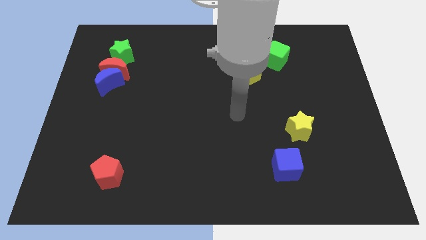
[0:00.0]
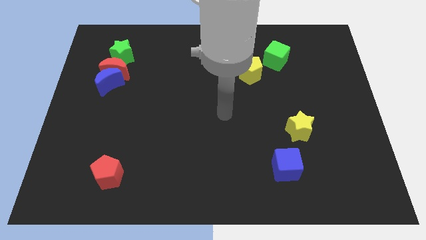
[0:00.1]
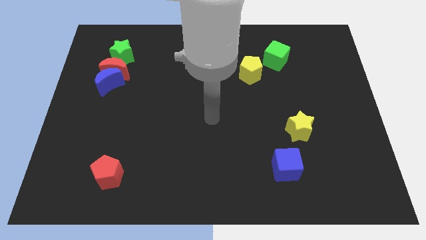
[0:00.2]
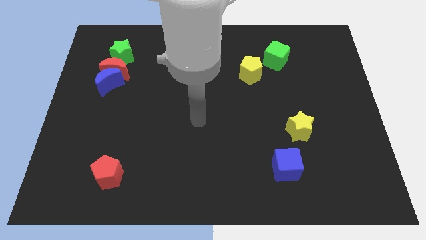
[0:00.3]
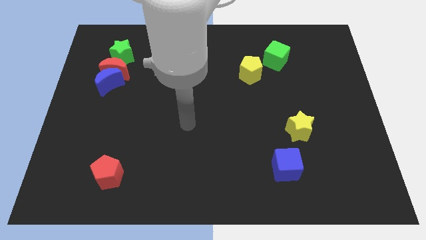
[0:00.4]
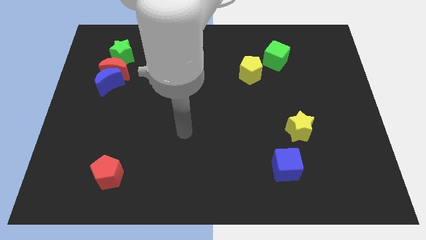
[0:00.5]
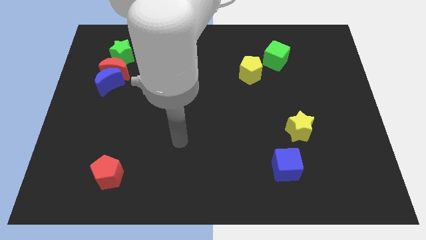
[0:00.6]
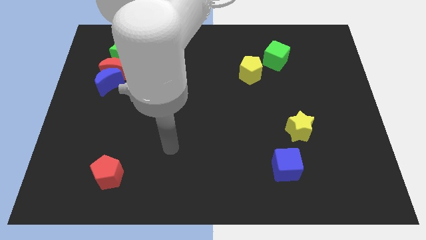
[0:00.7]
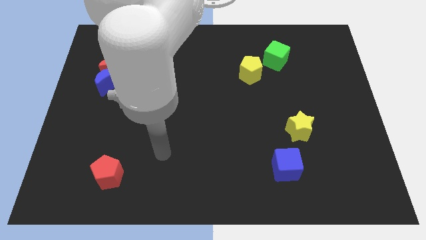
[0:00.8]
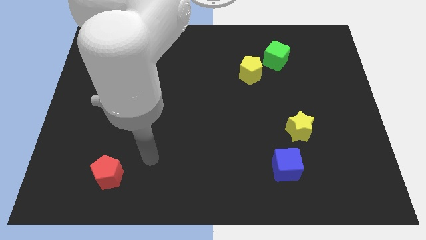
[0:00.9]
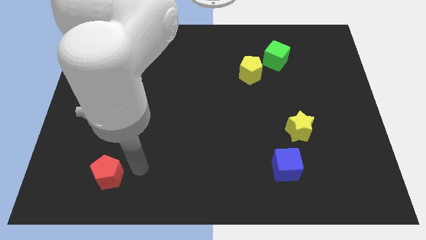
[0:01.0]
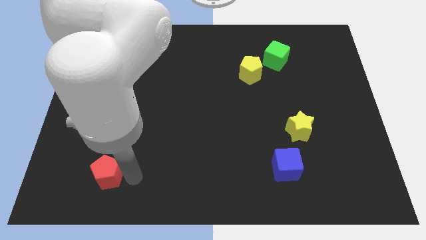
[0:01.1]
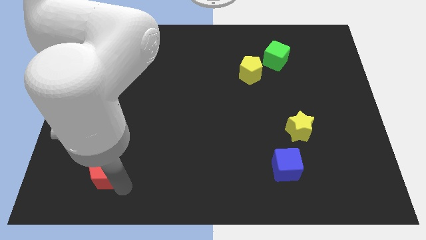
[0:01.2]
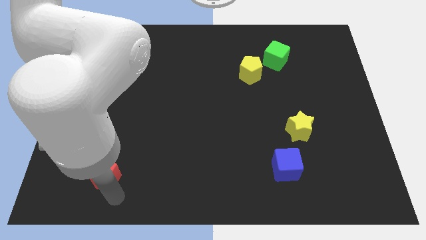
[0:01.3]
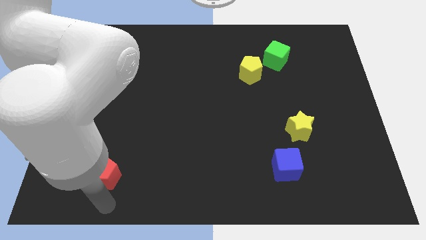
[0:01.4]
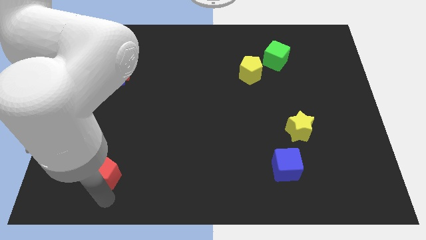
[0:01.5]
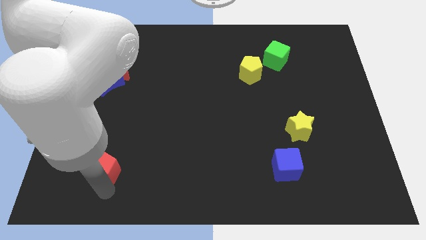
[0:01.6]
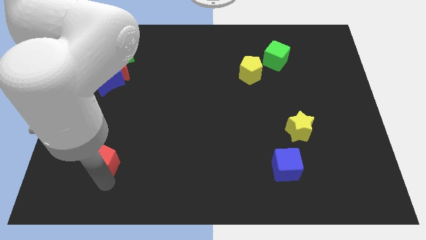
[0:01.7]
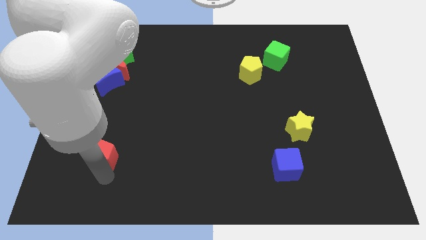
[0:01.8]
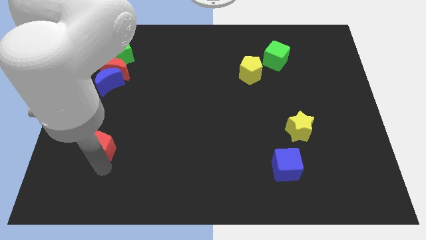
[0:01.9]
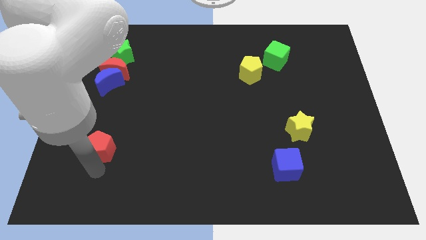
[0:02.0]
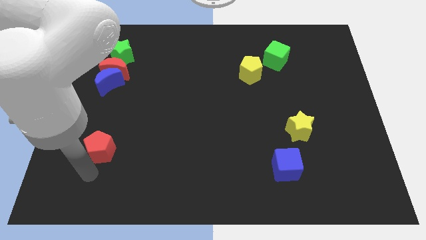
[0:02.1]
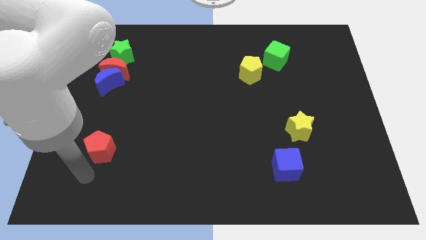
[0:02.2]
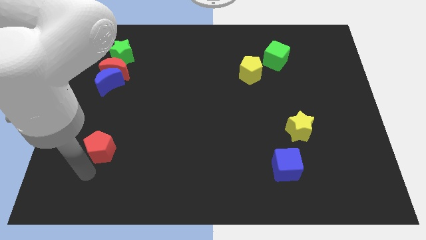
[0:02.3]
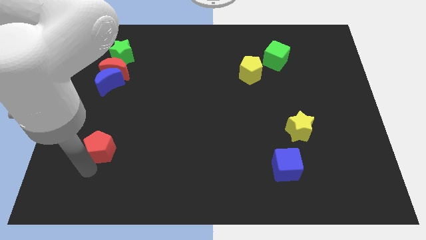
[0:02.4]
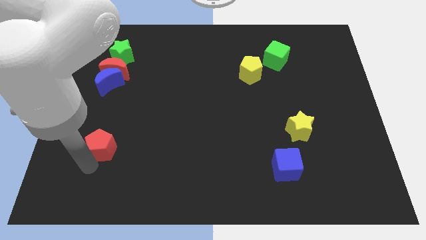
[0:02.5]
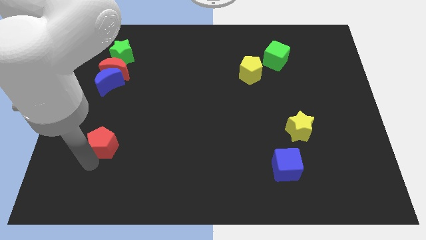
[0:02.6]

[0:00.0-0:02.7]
slightly move the red pentagon upwards

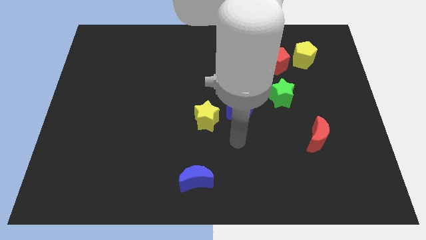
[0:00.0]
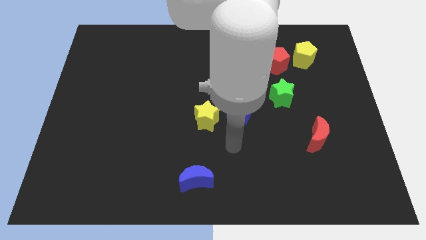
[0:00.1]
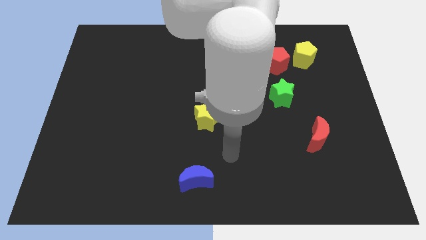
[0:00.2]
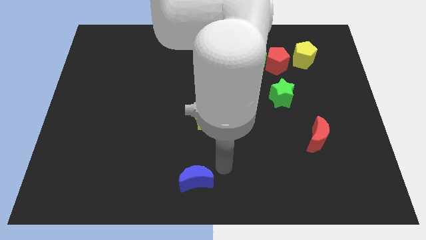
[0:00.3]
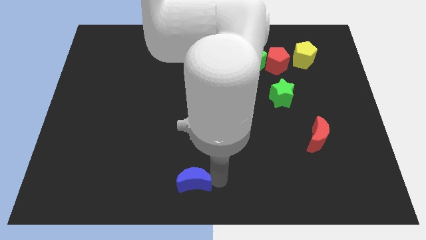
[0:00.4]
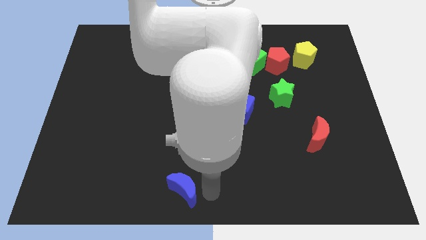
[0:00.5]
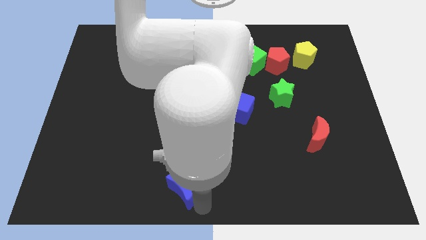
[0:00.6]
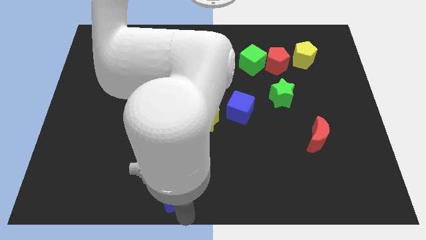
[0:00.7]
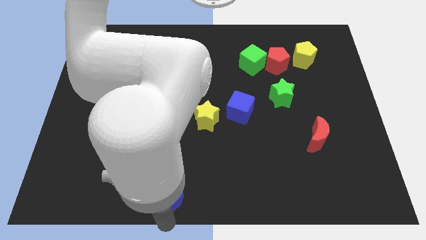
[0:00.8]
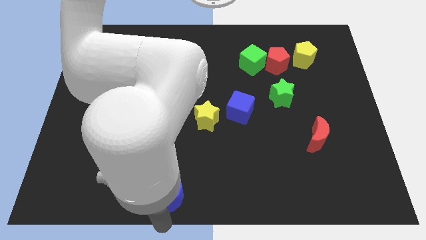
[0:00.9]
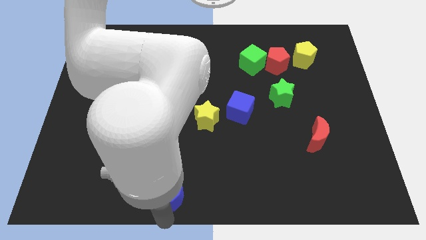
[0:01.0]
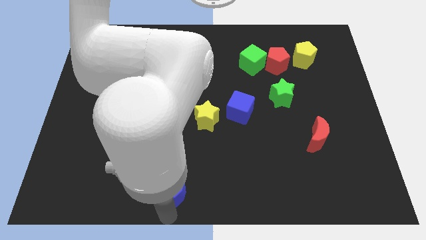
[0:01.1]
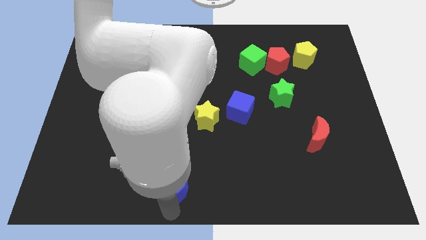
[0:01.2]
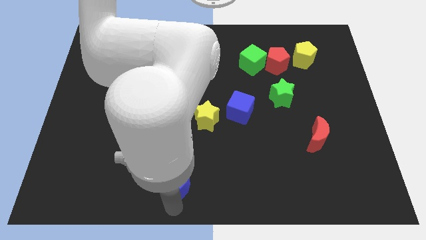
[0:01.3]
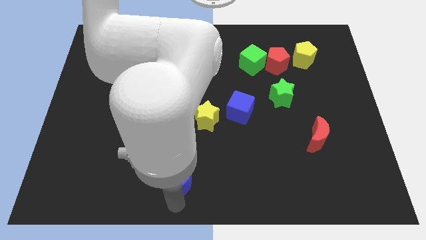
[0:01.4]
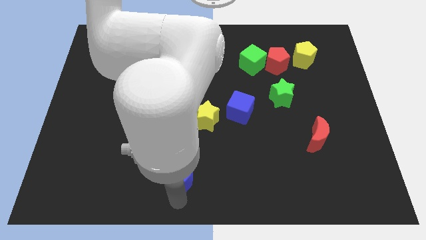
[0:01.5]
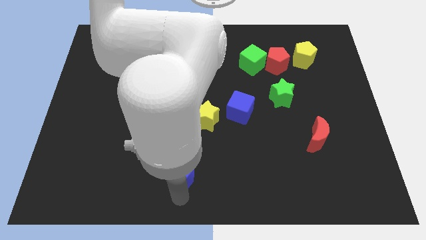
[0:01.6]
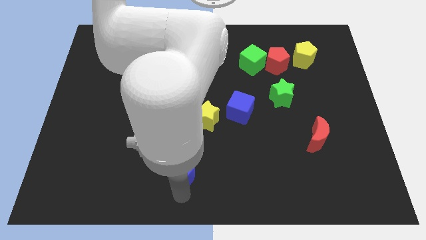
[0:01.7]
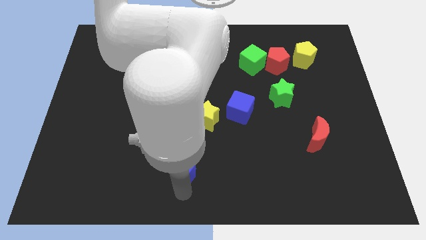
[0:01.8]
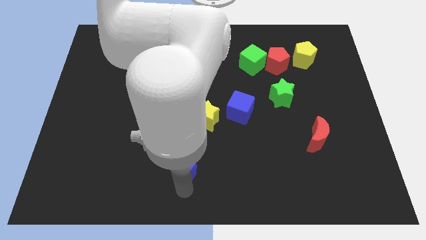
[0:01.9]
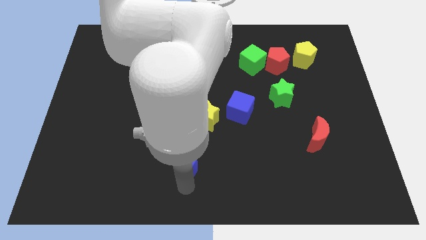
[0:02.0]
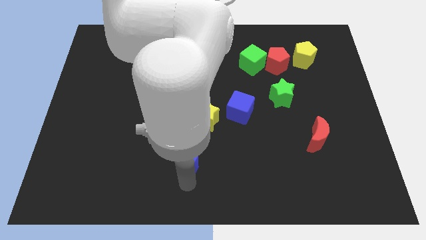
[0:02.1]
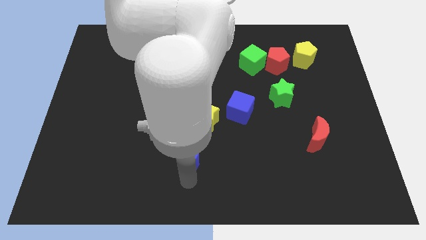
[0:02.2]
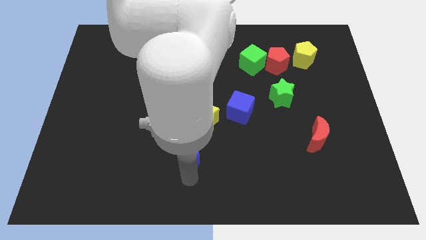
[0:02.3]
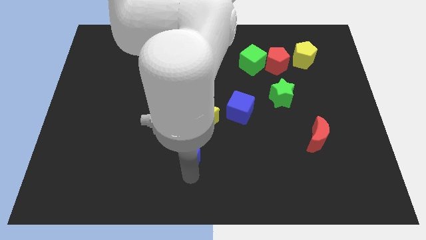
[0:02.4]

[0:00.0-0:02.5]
move the blue moon slightly up

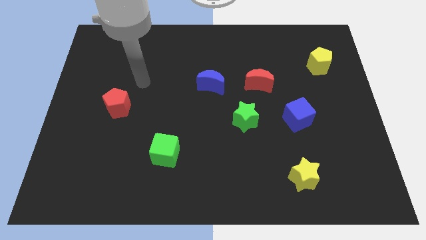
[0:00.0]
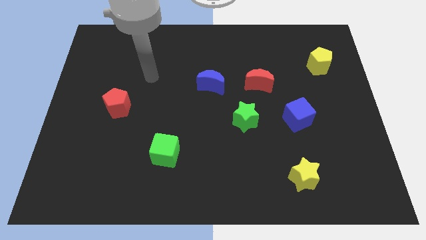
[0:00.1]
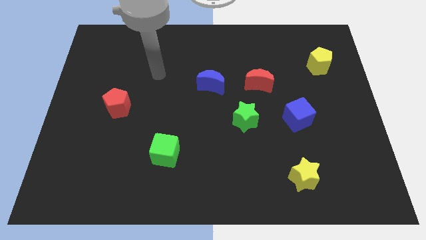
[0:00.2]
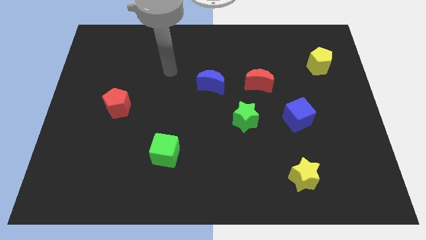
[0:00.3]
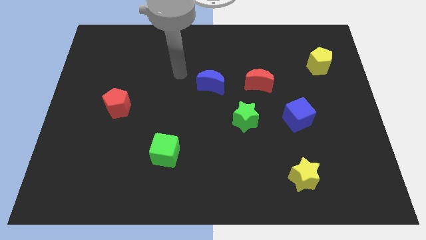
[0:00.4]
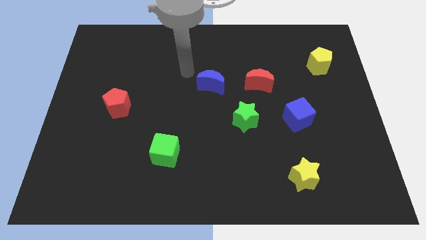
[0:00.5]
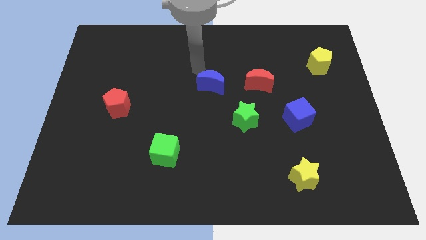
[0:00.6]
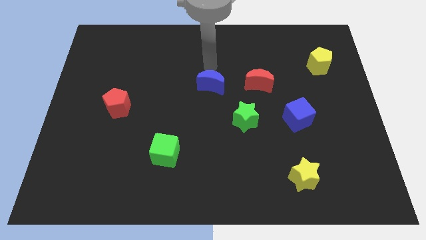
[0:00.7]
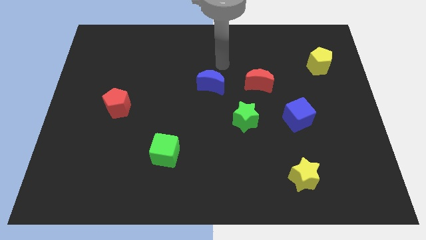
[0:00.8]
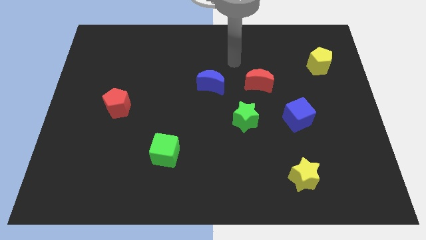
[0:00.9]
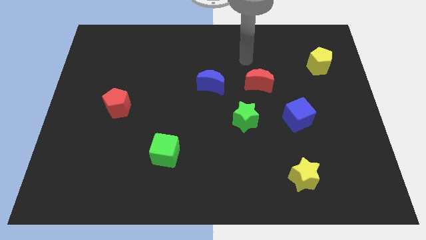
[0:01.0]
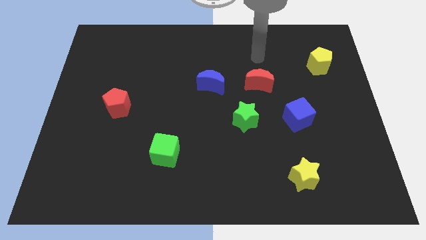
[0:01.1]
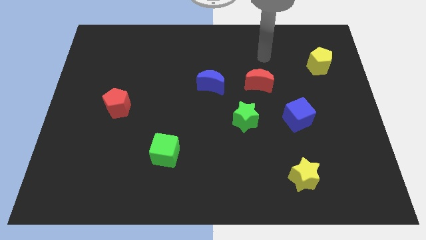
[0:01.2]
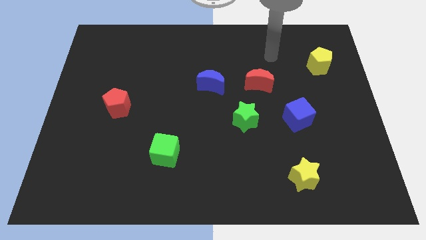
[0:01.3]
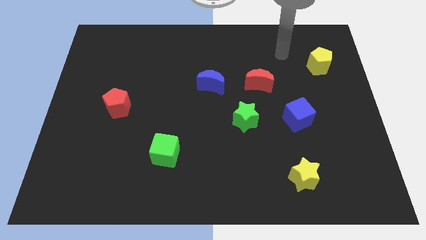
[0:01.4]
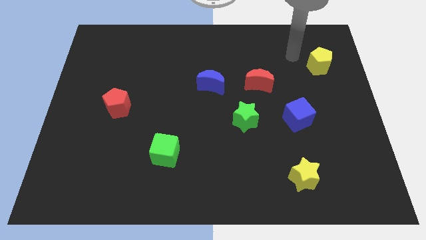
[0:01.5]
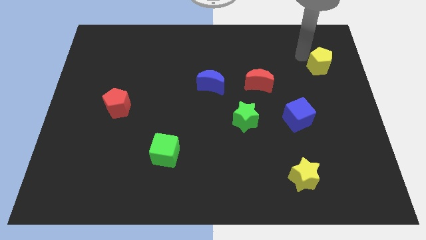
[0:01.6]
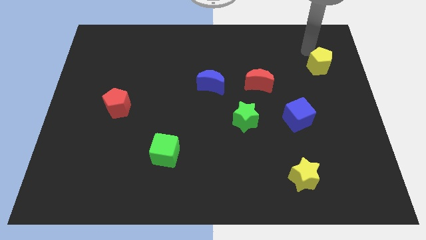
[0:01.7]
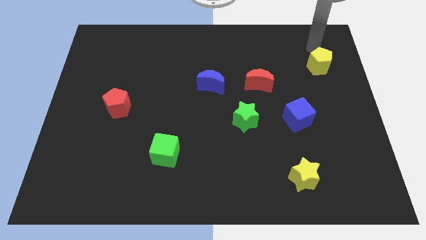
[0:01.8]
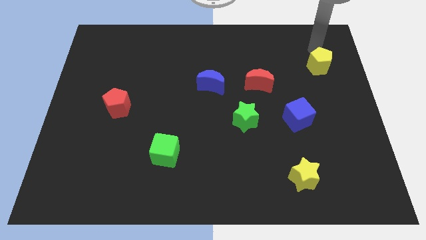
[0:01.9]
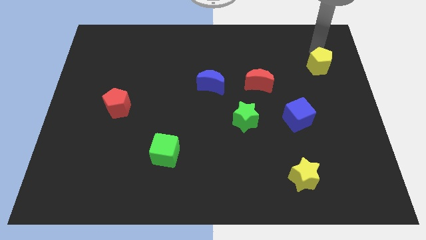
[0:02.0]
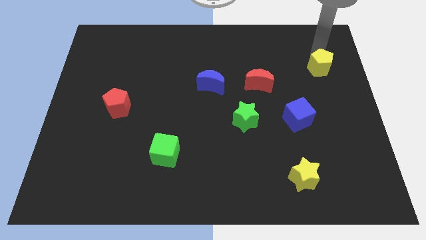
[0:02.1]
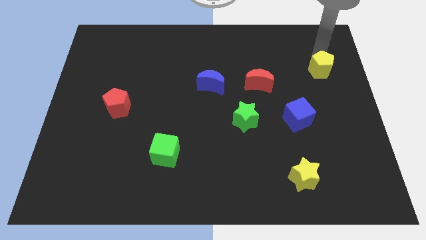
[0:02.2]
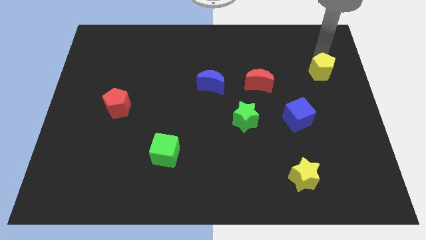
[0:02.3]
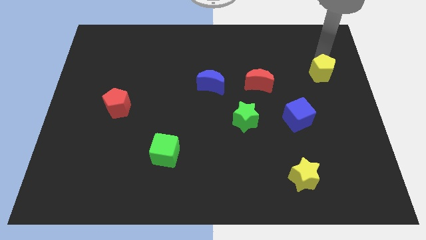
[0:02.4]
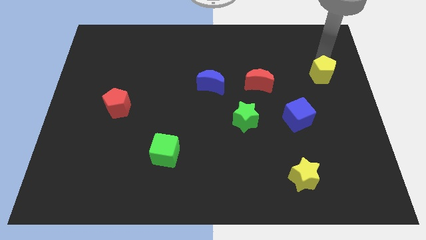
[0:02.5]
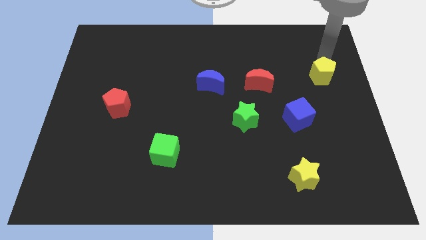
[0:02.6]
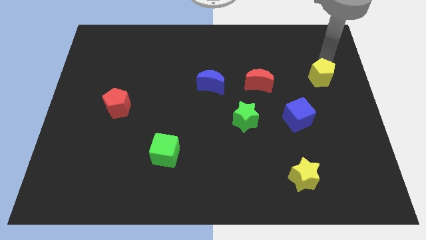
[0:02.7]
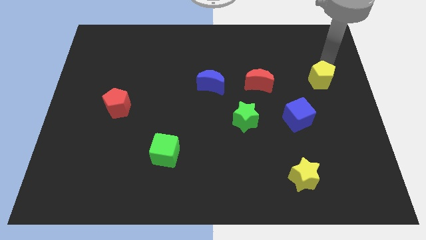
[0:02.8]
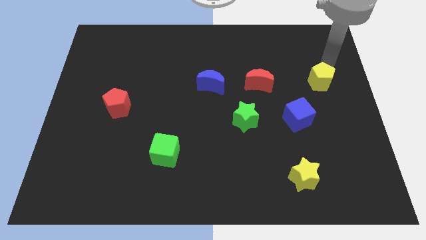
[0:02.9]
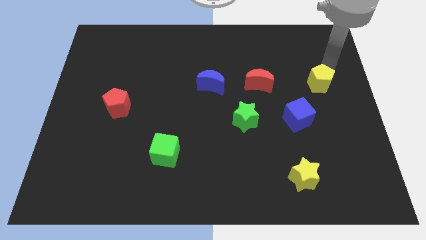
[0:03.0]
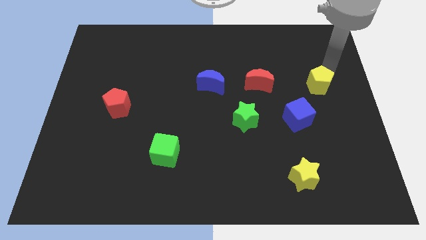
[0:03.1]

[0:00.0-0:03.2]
slightly slide the yellow pentagon down

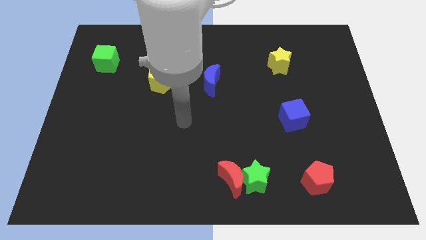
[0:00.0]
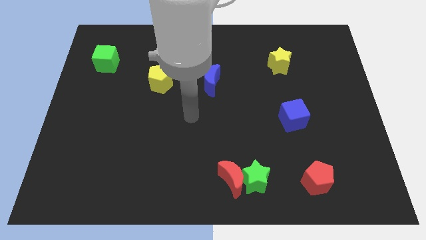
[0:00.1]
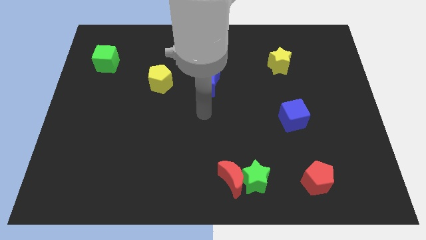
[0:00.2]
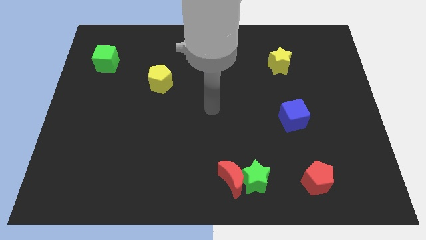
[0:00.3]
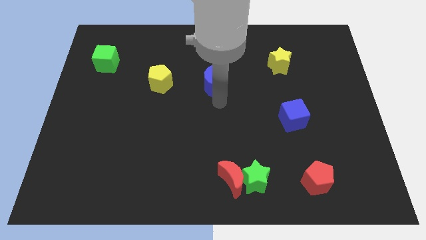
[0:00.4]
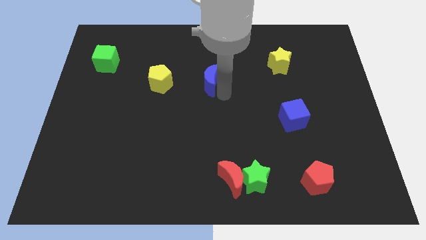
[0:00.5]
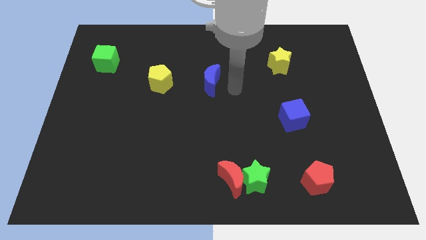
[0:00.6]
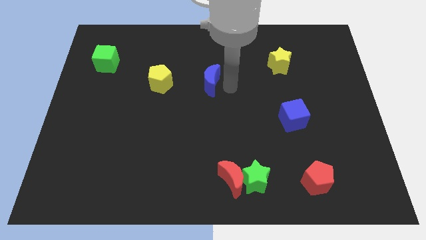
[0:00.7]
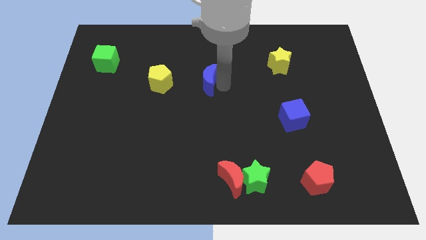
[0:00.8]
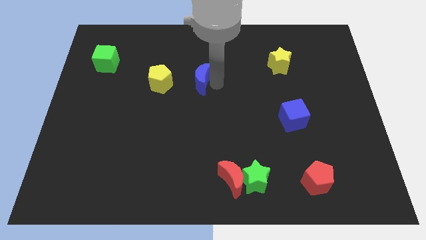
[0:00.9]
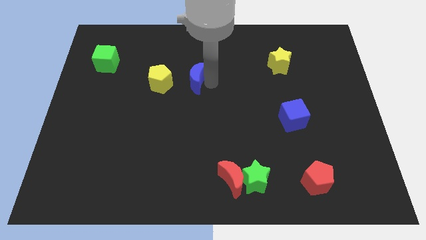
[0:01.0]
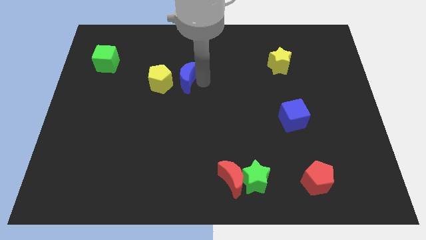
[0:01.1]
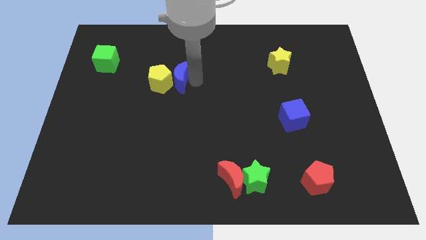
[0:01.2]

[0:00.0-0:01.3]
push the blue moon left a little
